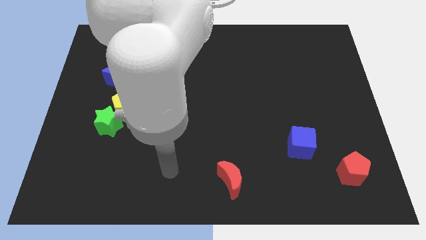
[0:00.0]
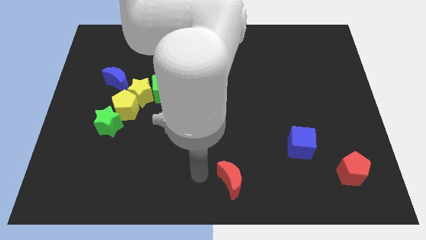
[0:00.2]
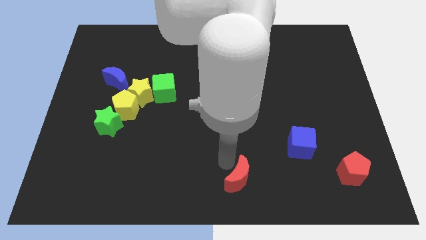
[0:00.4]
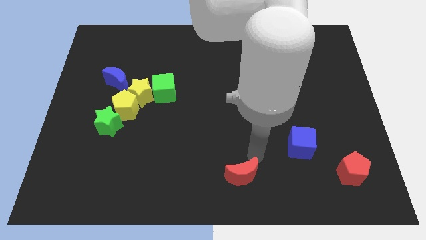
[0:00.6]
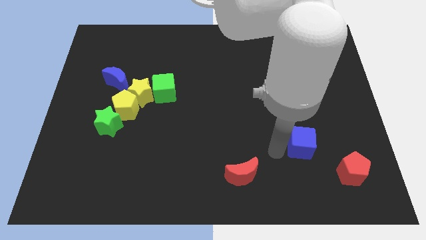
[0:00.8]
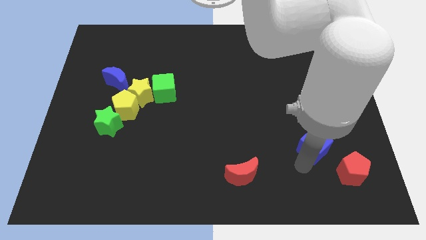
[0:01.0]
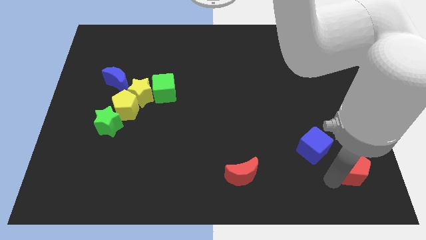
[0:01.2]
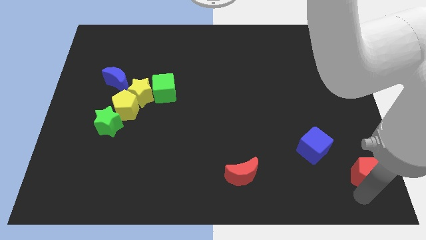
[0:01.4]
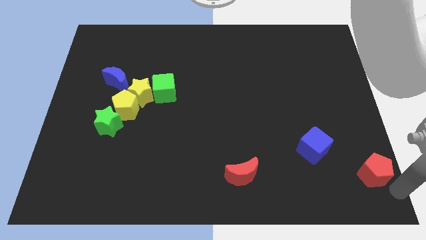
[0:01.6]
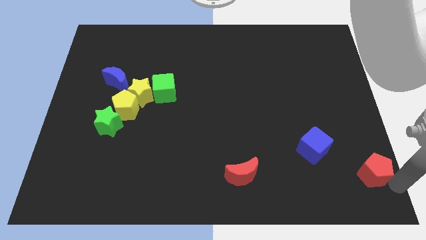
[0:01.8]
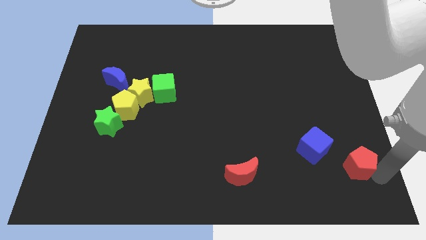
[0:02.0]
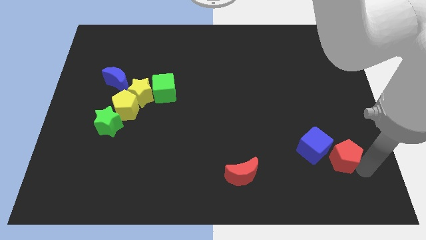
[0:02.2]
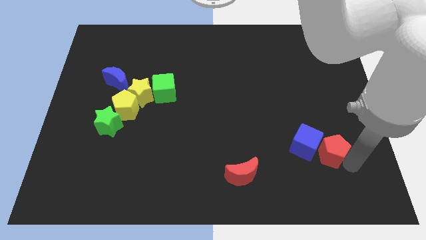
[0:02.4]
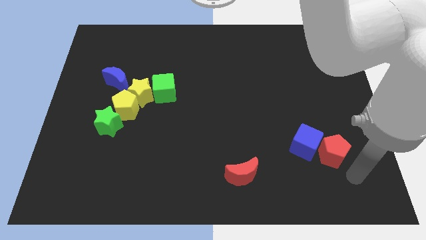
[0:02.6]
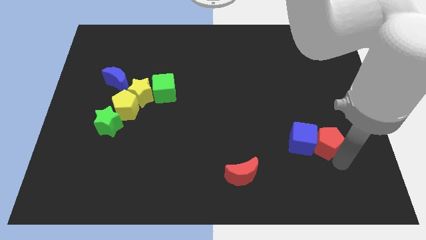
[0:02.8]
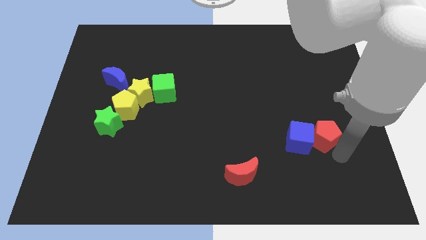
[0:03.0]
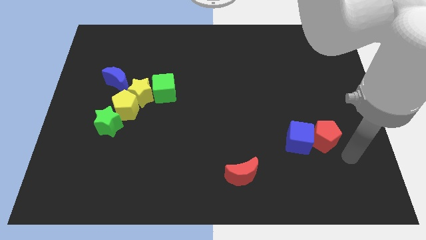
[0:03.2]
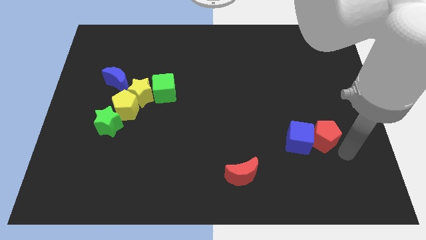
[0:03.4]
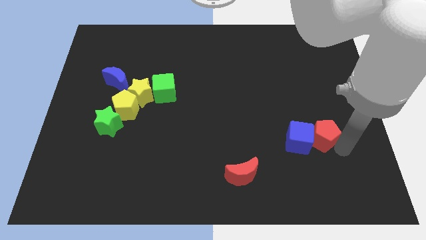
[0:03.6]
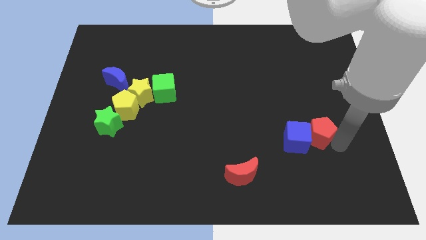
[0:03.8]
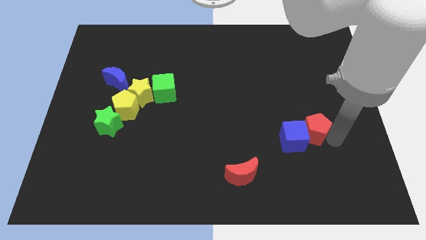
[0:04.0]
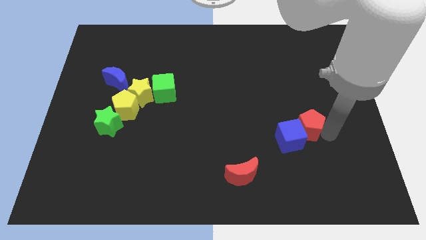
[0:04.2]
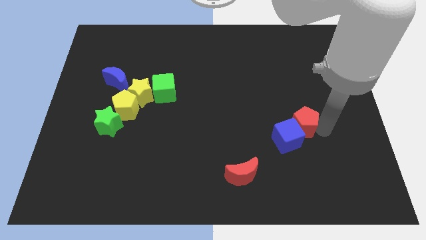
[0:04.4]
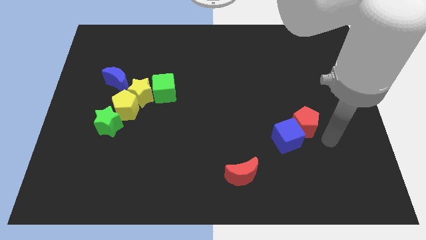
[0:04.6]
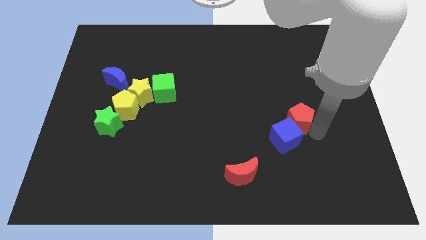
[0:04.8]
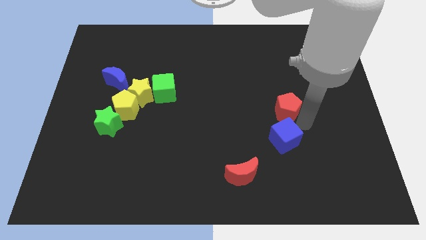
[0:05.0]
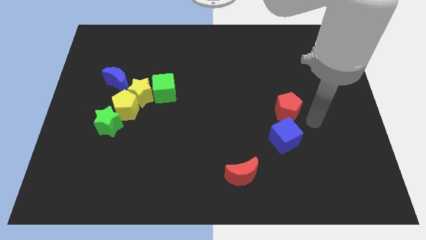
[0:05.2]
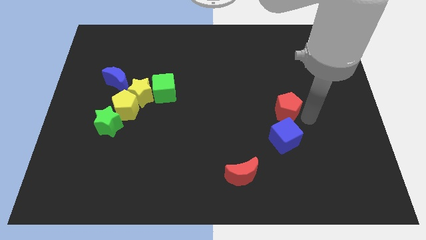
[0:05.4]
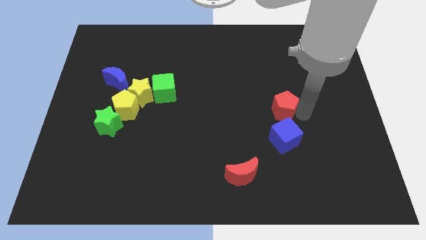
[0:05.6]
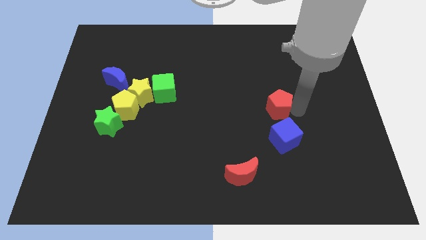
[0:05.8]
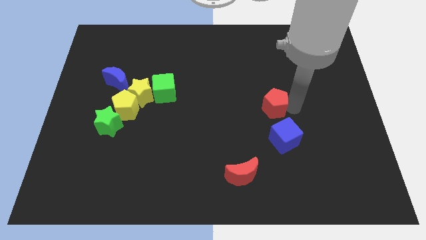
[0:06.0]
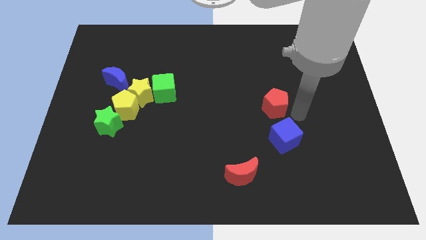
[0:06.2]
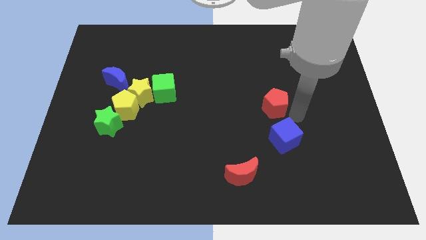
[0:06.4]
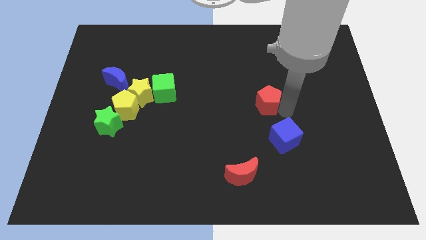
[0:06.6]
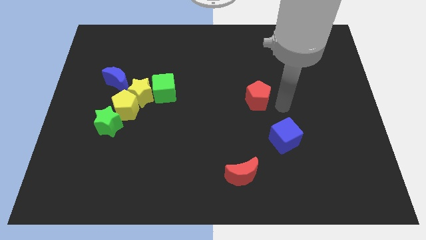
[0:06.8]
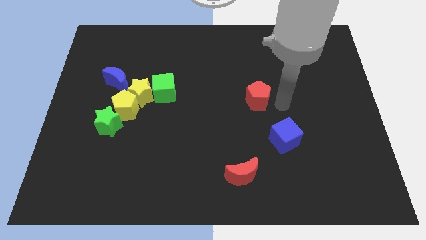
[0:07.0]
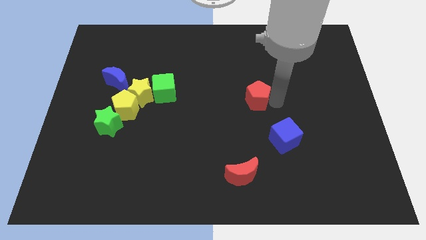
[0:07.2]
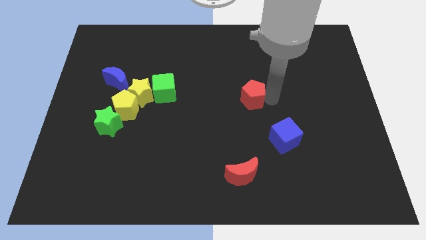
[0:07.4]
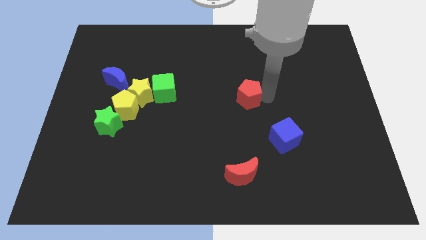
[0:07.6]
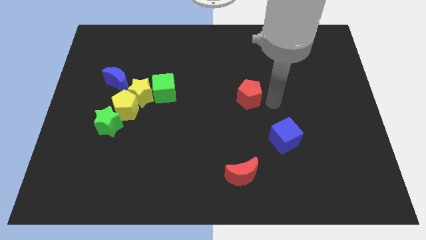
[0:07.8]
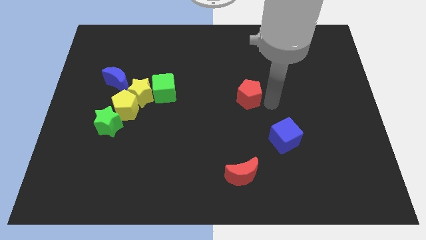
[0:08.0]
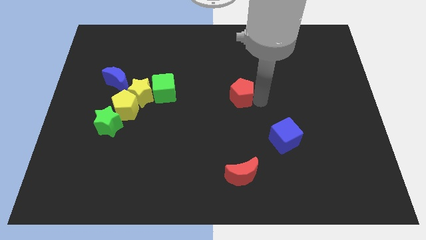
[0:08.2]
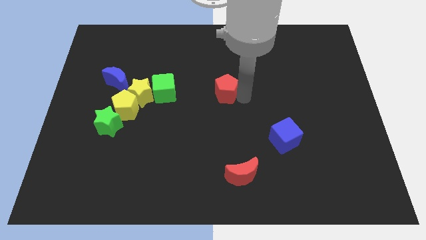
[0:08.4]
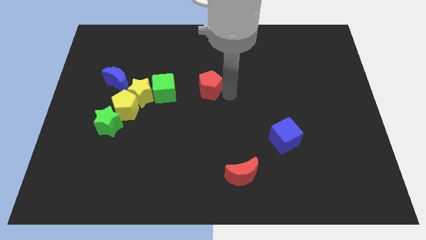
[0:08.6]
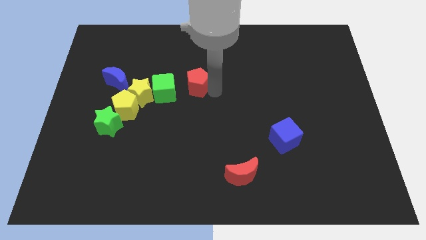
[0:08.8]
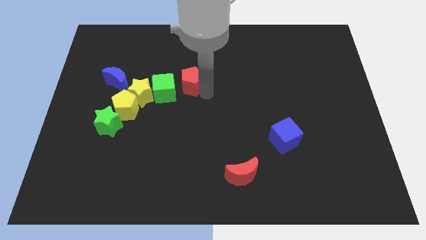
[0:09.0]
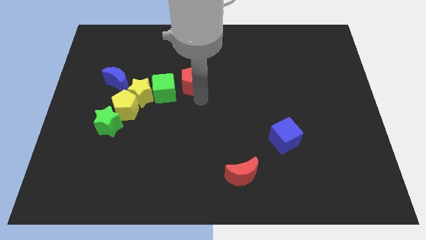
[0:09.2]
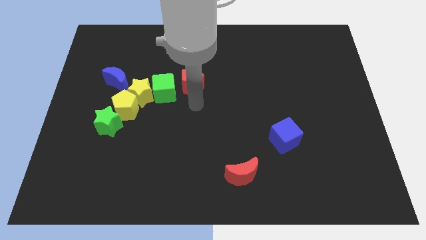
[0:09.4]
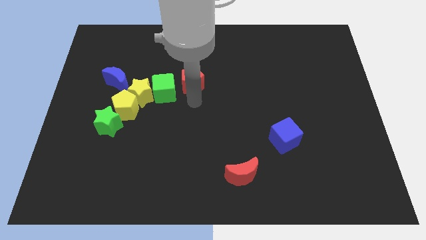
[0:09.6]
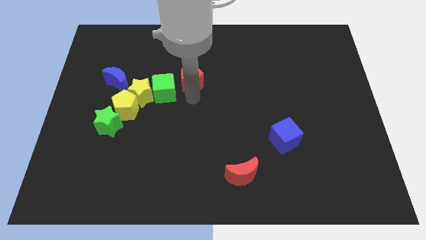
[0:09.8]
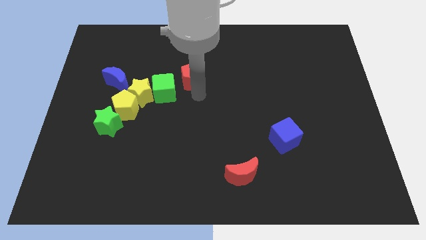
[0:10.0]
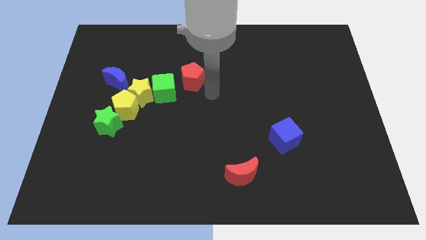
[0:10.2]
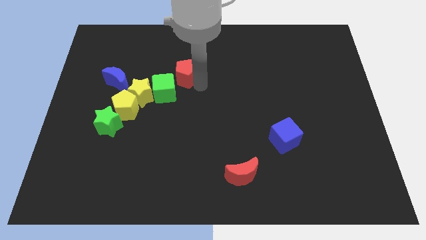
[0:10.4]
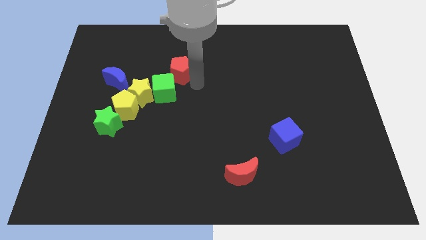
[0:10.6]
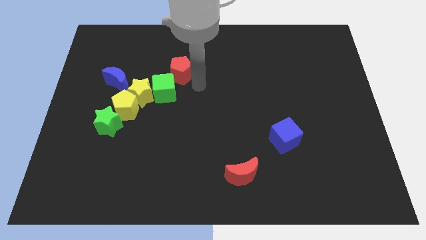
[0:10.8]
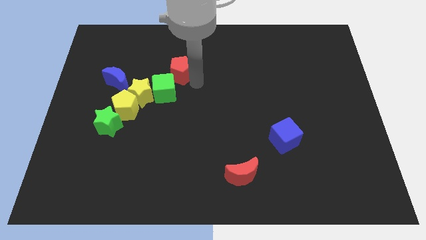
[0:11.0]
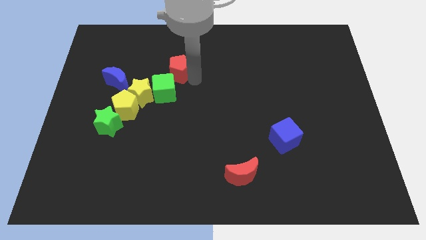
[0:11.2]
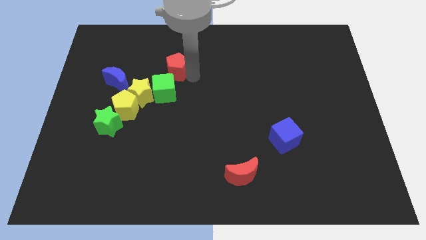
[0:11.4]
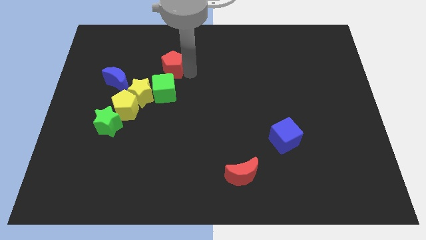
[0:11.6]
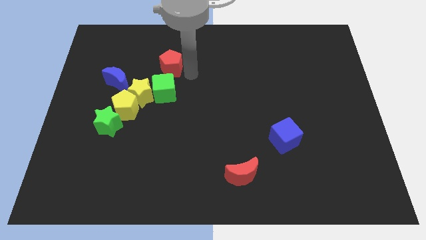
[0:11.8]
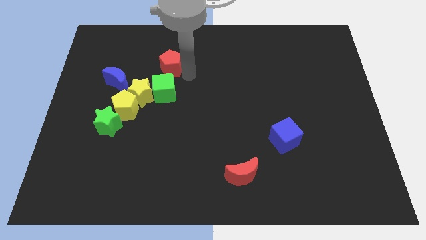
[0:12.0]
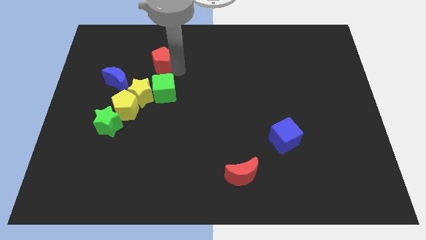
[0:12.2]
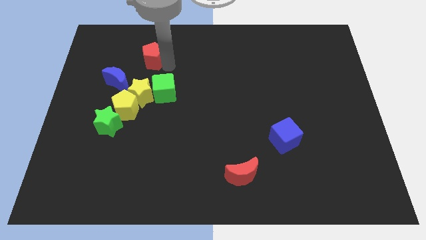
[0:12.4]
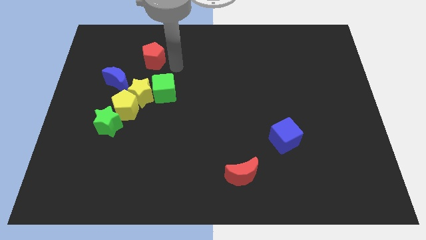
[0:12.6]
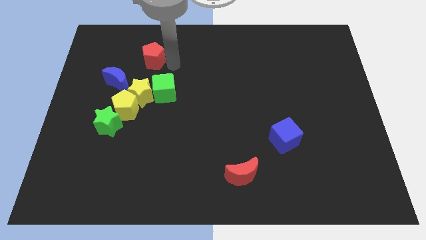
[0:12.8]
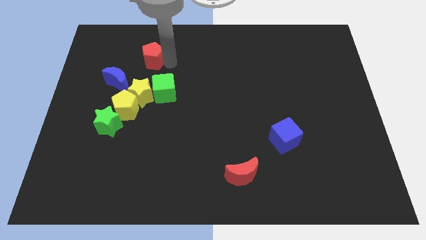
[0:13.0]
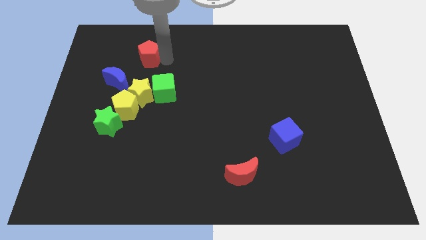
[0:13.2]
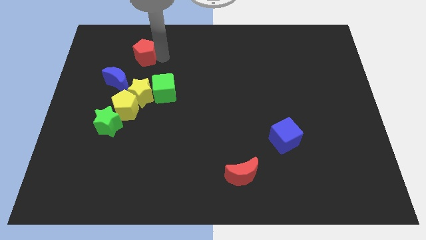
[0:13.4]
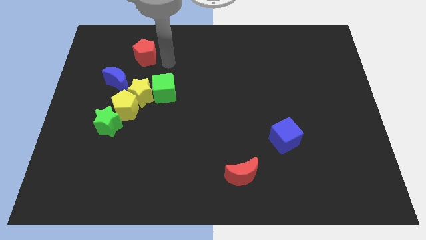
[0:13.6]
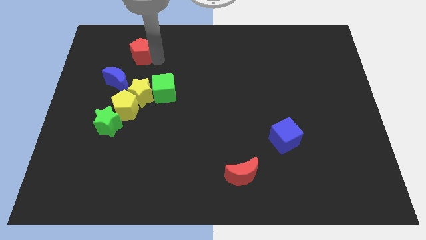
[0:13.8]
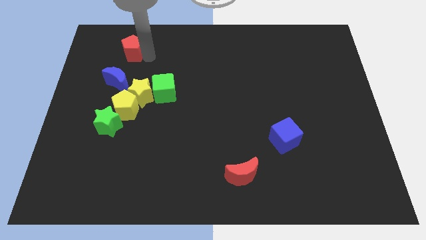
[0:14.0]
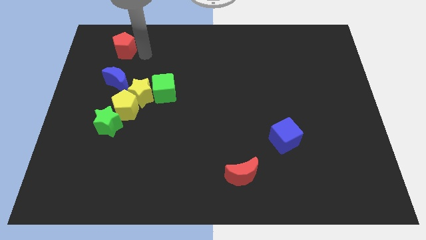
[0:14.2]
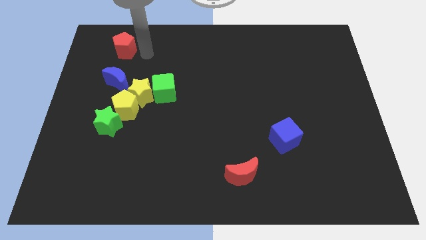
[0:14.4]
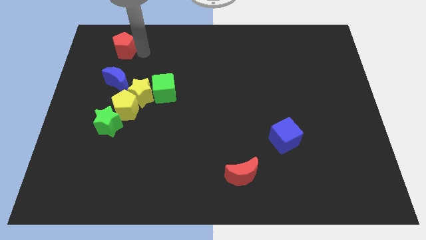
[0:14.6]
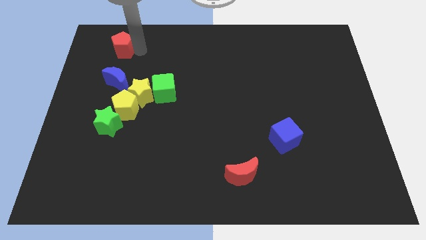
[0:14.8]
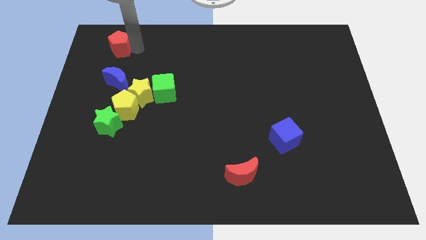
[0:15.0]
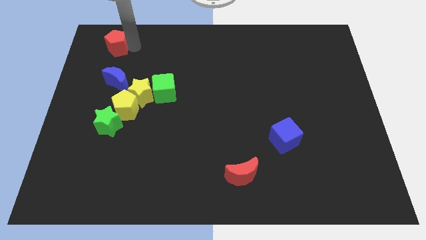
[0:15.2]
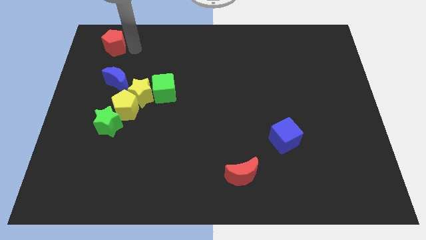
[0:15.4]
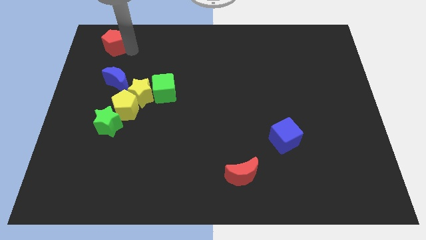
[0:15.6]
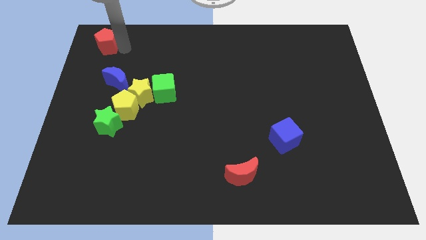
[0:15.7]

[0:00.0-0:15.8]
move the red pentagon to the top left corner
